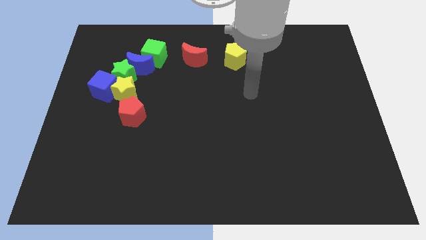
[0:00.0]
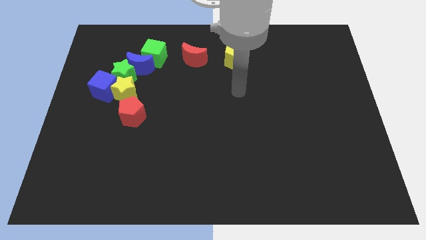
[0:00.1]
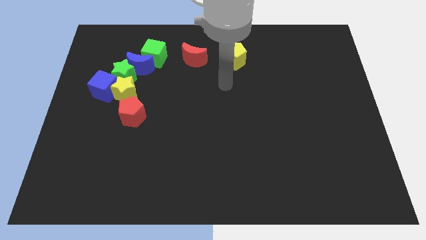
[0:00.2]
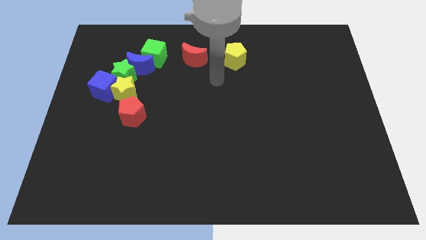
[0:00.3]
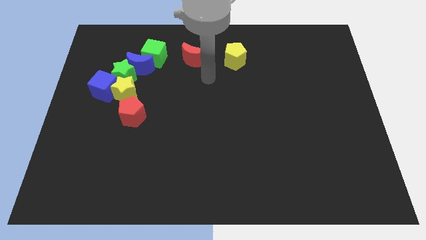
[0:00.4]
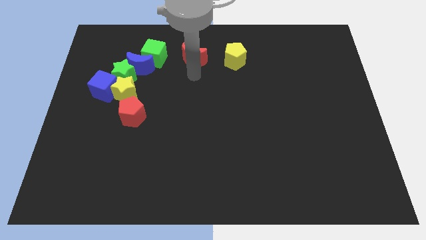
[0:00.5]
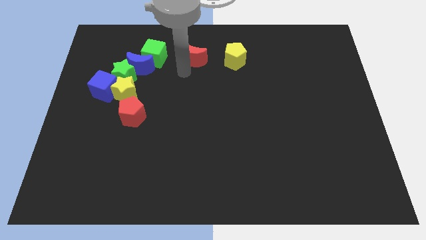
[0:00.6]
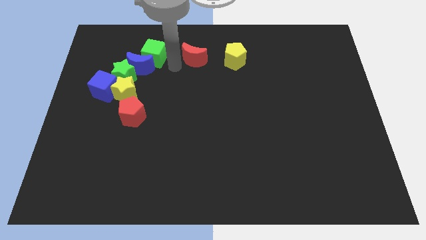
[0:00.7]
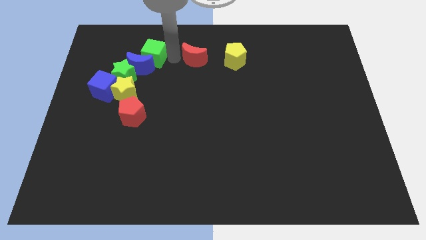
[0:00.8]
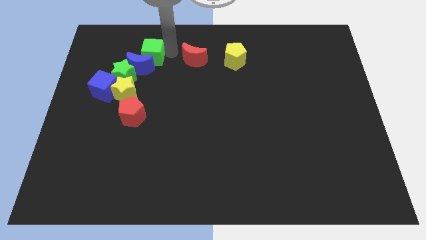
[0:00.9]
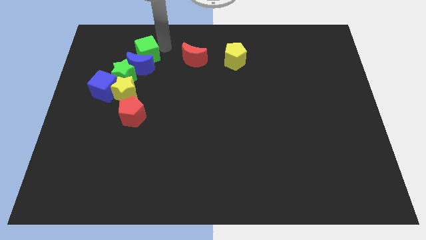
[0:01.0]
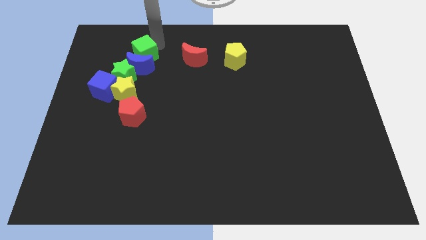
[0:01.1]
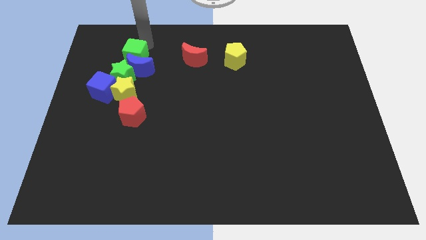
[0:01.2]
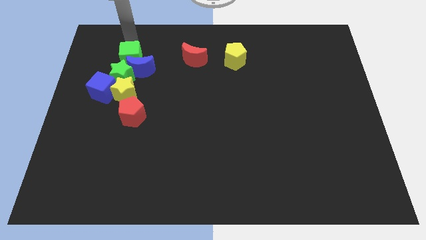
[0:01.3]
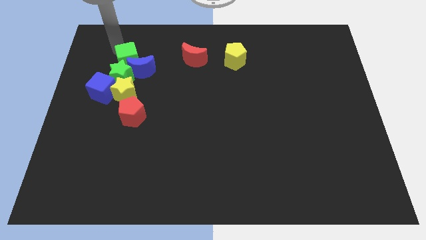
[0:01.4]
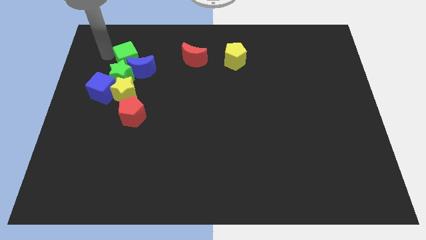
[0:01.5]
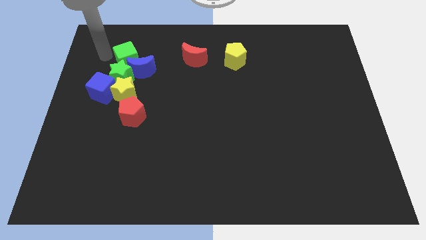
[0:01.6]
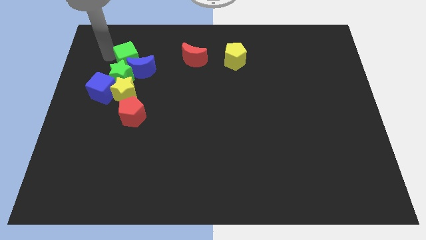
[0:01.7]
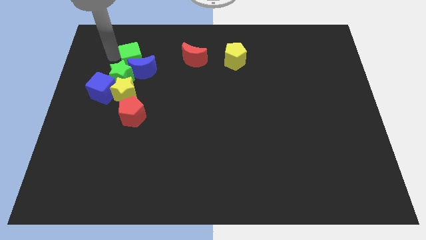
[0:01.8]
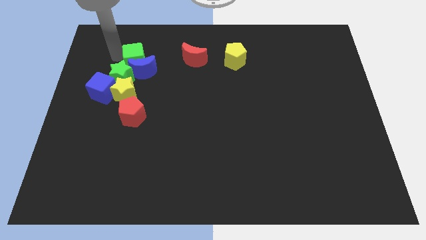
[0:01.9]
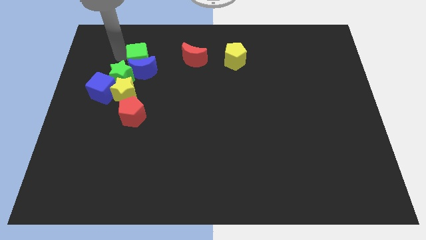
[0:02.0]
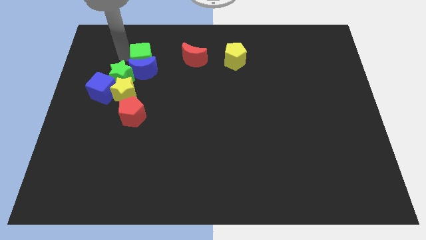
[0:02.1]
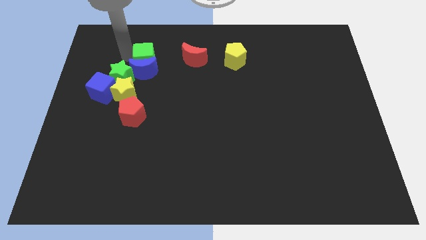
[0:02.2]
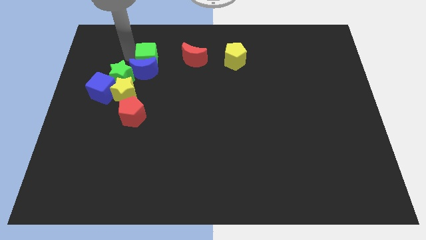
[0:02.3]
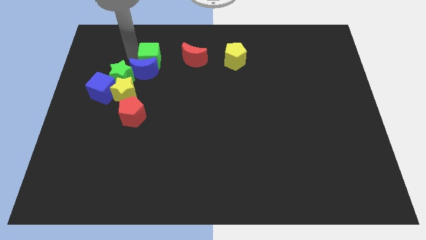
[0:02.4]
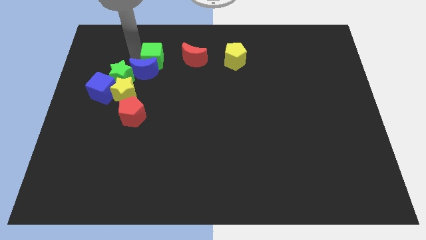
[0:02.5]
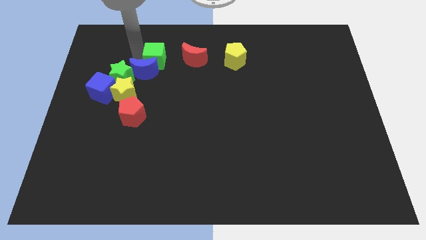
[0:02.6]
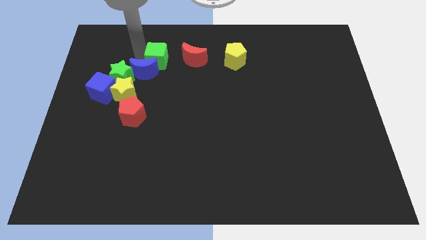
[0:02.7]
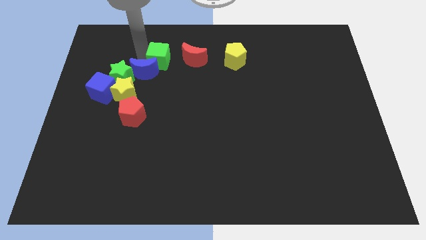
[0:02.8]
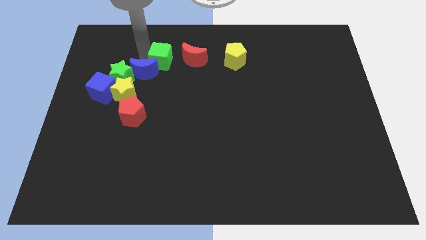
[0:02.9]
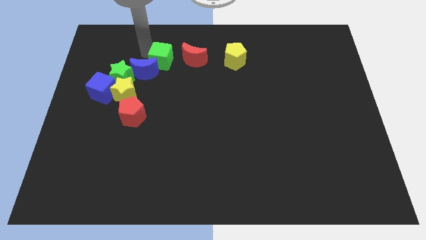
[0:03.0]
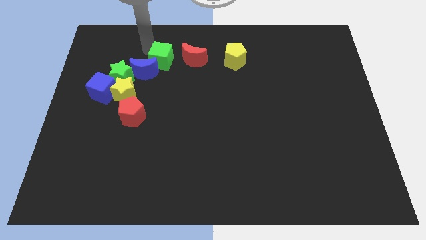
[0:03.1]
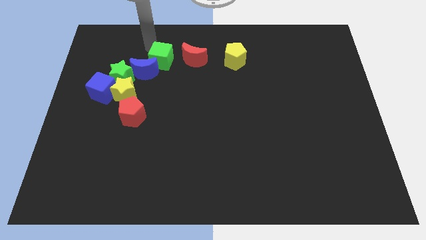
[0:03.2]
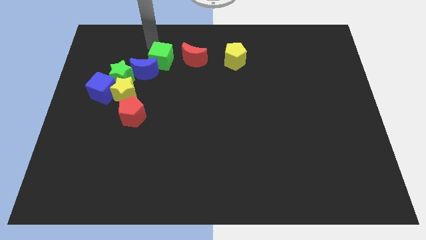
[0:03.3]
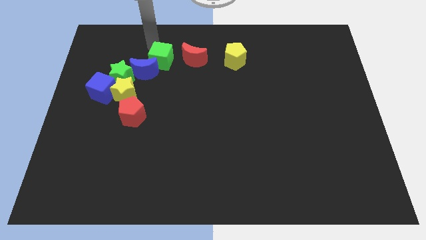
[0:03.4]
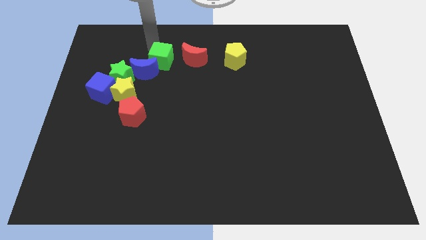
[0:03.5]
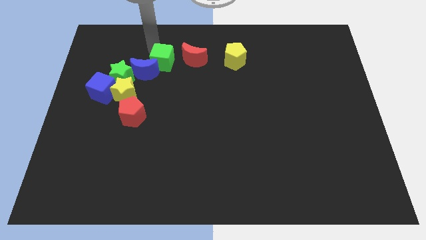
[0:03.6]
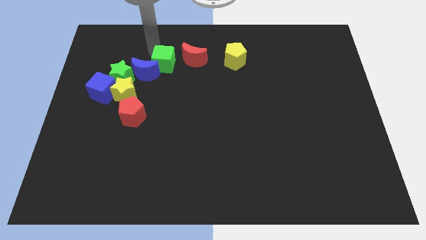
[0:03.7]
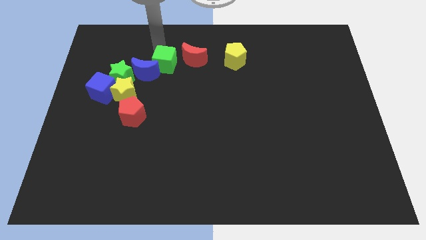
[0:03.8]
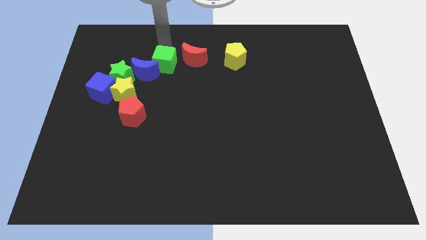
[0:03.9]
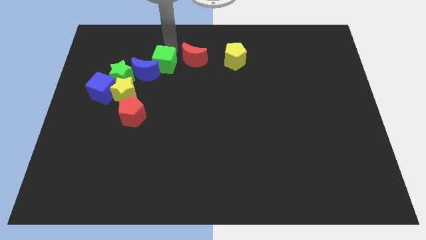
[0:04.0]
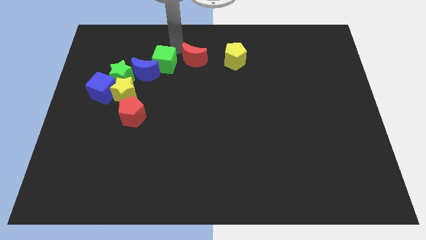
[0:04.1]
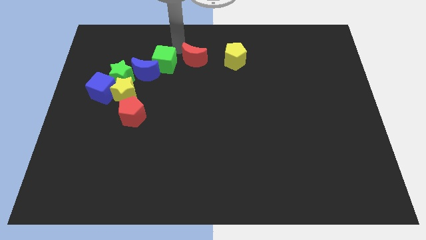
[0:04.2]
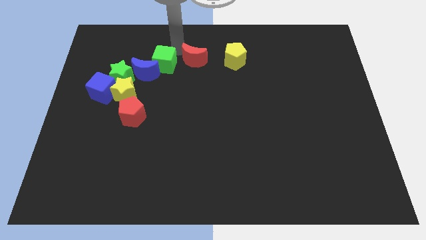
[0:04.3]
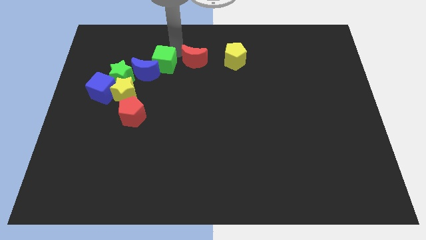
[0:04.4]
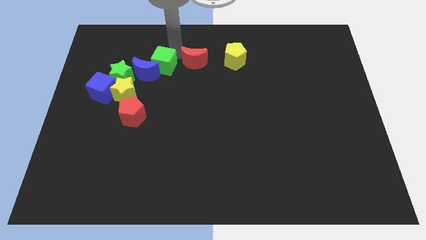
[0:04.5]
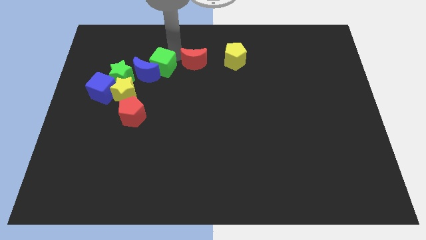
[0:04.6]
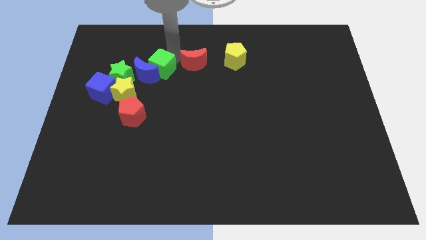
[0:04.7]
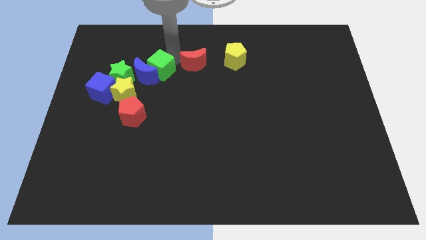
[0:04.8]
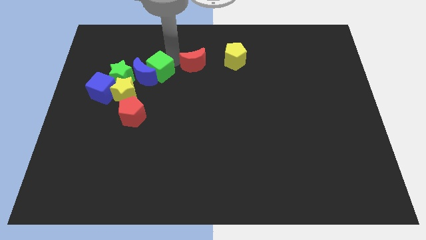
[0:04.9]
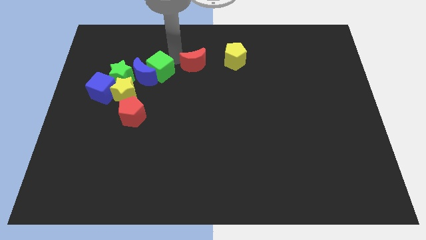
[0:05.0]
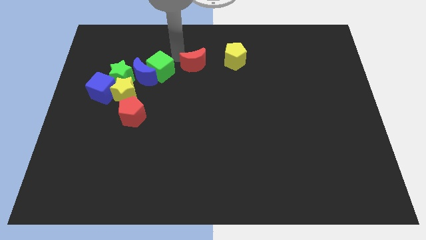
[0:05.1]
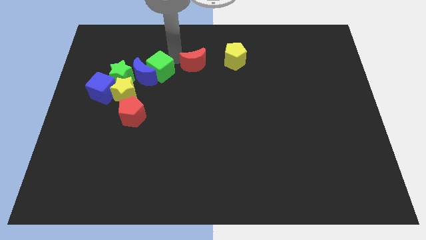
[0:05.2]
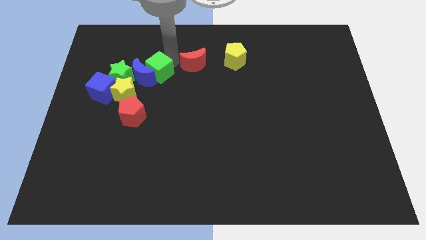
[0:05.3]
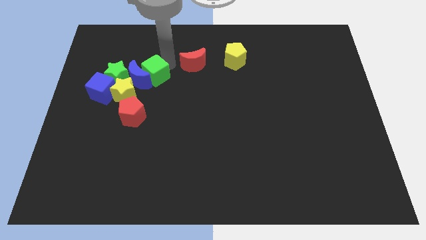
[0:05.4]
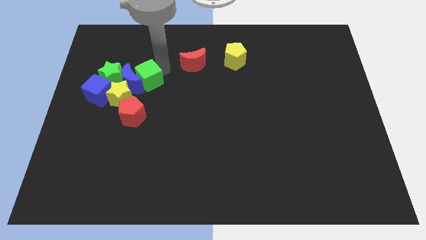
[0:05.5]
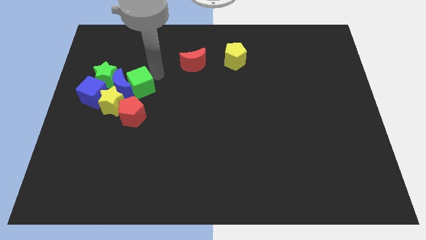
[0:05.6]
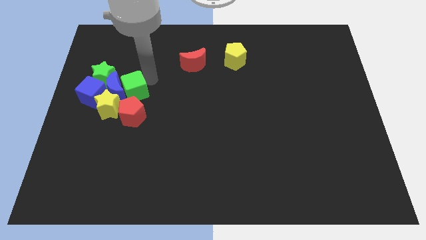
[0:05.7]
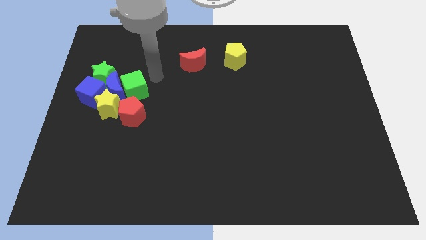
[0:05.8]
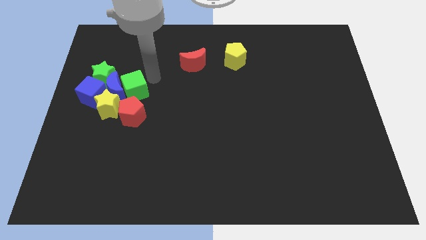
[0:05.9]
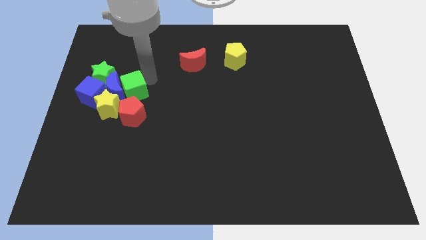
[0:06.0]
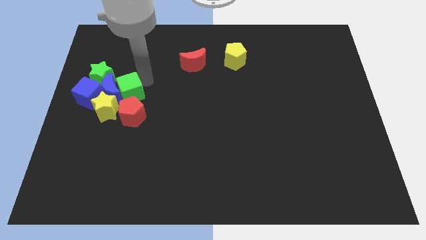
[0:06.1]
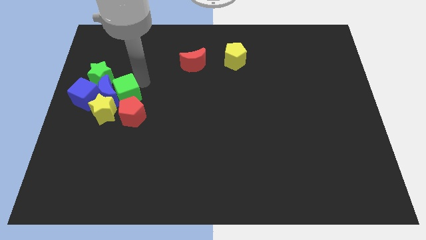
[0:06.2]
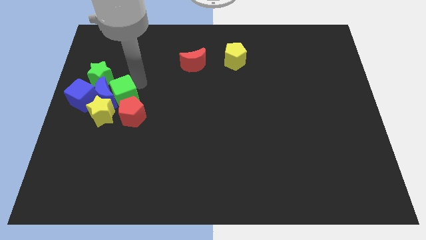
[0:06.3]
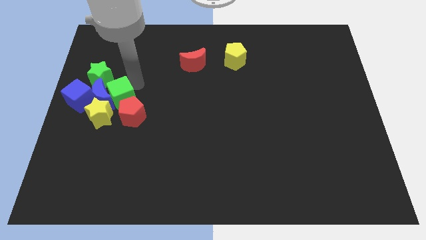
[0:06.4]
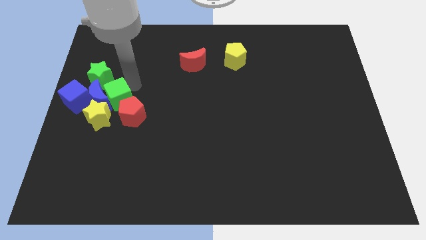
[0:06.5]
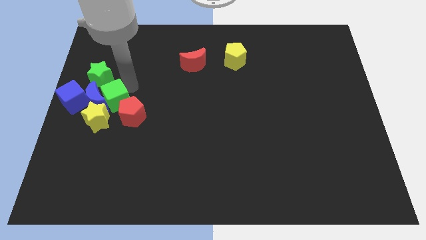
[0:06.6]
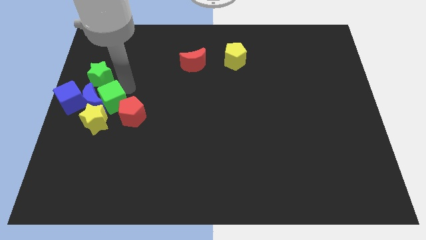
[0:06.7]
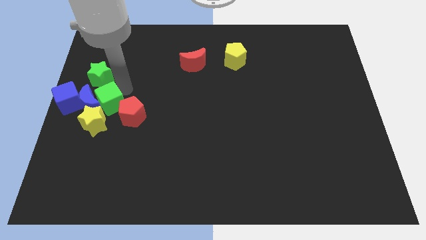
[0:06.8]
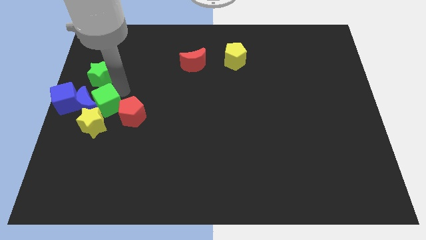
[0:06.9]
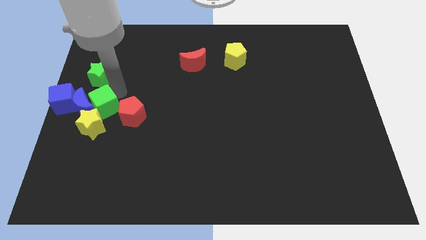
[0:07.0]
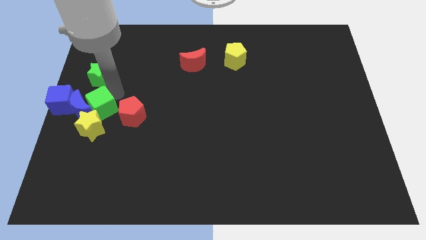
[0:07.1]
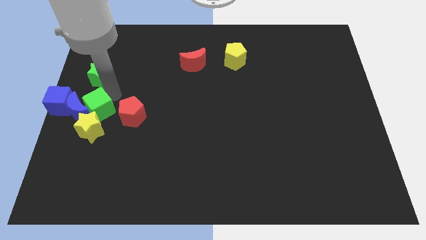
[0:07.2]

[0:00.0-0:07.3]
put the green cube close to the yellow star
